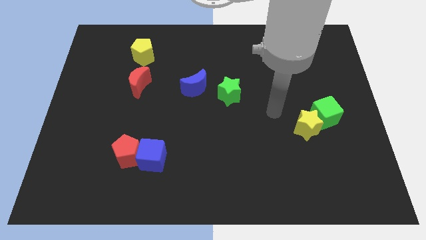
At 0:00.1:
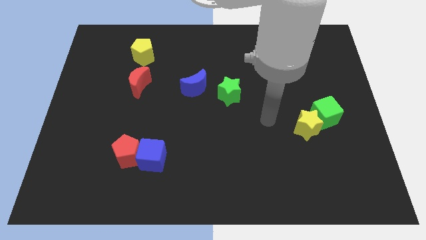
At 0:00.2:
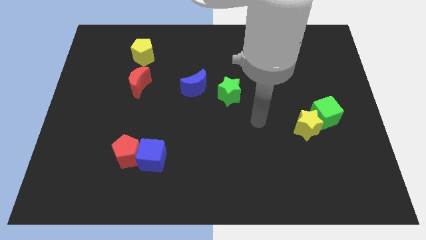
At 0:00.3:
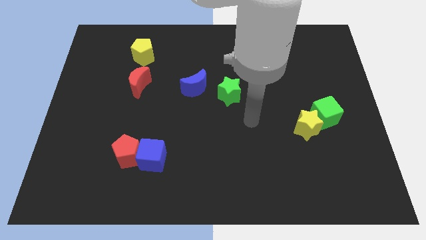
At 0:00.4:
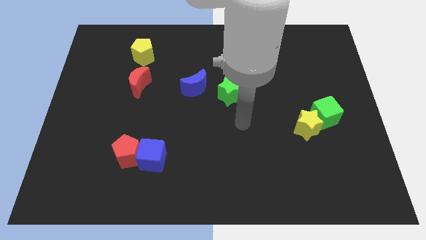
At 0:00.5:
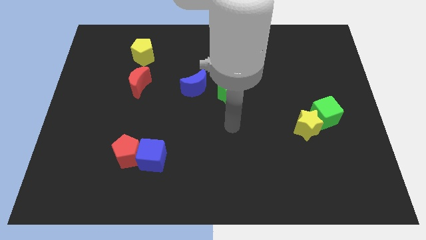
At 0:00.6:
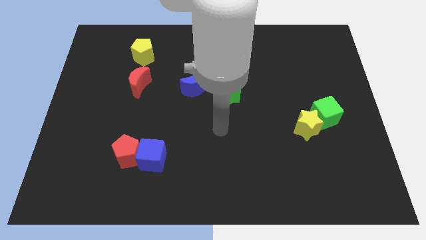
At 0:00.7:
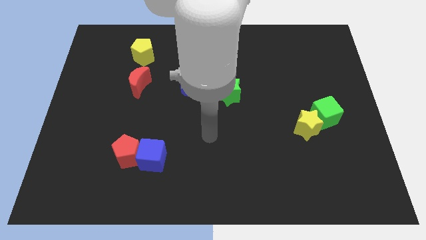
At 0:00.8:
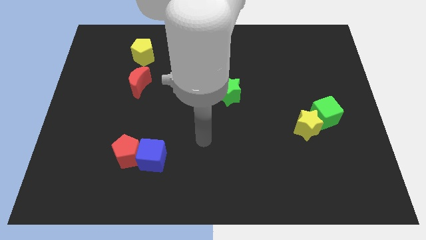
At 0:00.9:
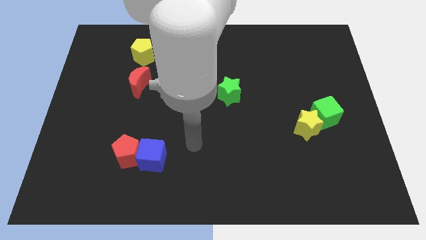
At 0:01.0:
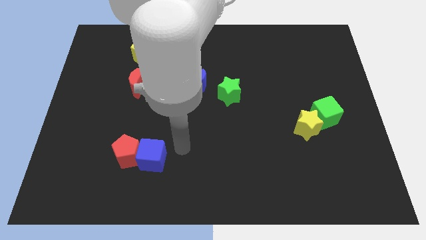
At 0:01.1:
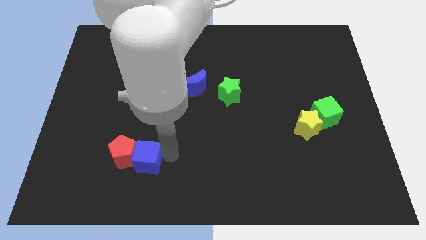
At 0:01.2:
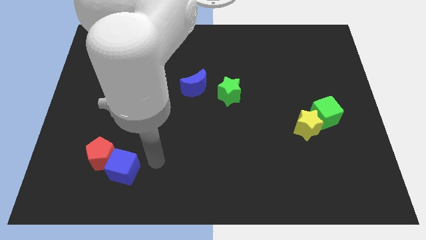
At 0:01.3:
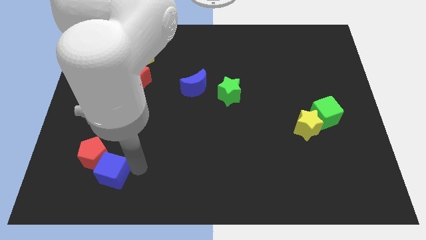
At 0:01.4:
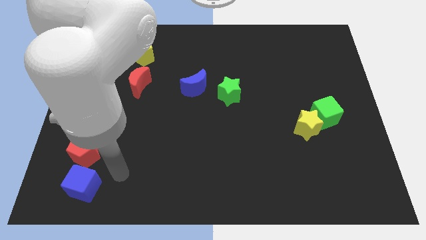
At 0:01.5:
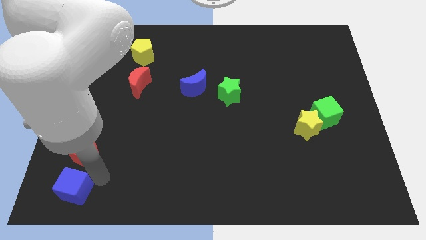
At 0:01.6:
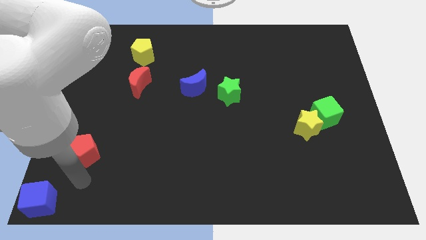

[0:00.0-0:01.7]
pull the red pentagon apart from the blue cube

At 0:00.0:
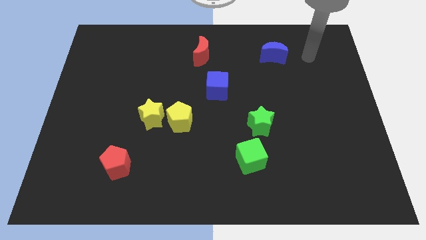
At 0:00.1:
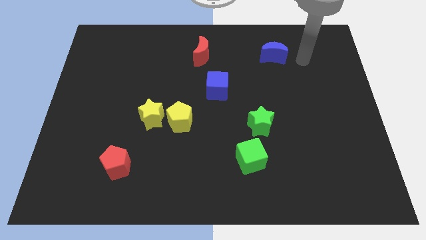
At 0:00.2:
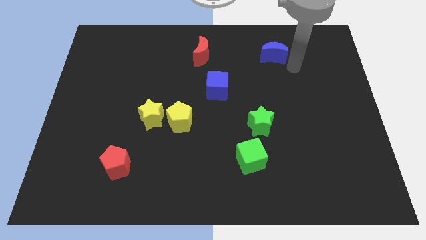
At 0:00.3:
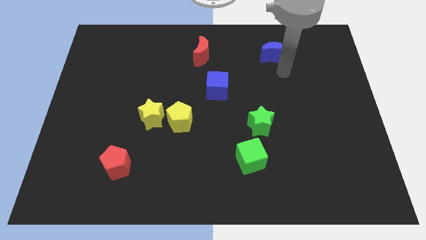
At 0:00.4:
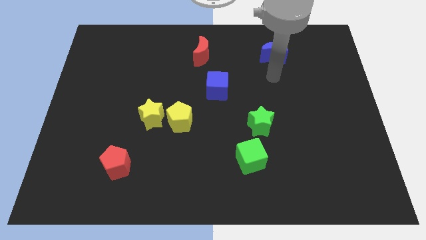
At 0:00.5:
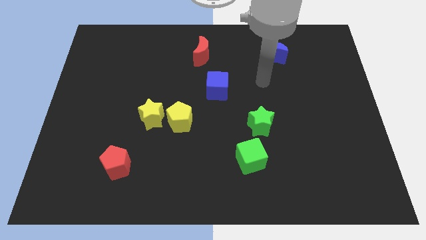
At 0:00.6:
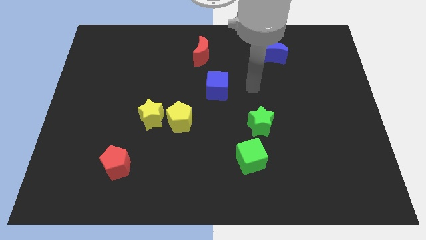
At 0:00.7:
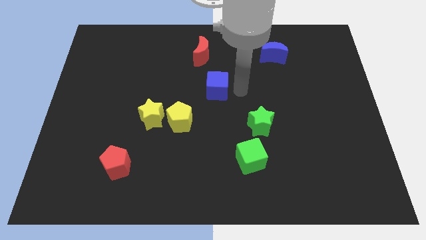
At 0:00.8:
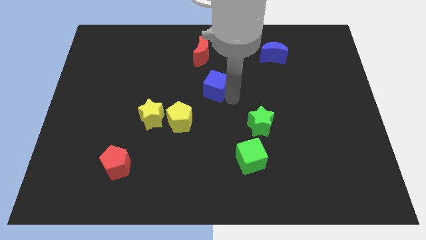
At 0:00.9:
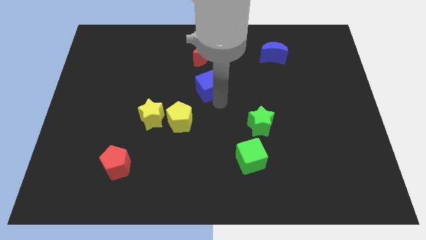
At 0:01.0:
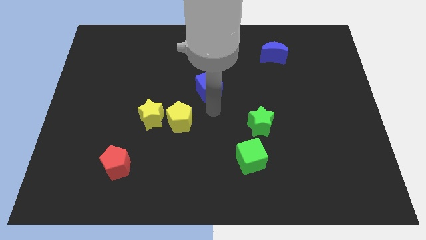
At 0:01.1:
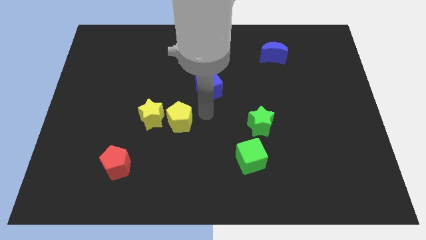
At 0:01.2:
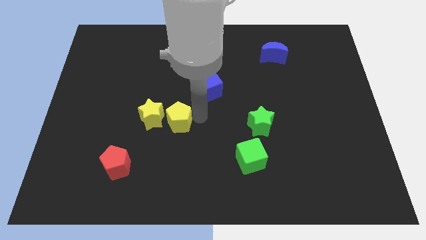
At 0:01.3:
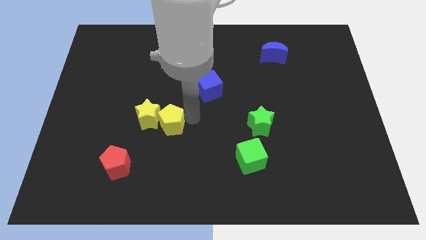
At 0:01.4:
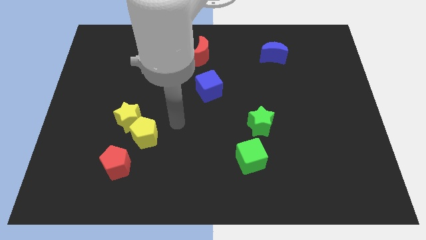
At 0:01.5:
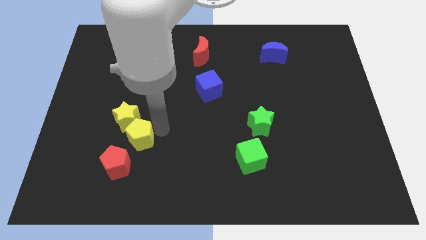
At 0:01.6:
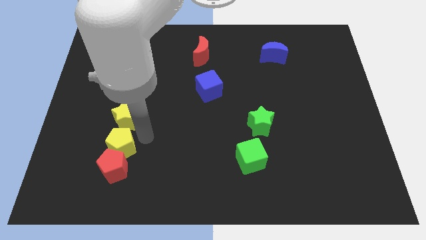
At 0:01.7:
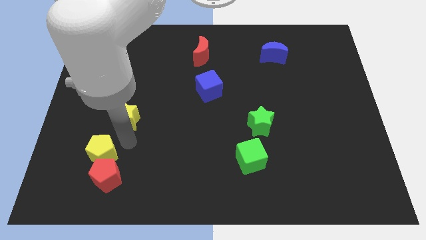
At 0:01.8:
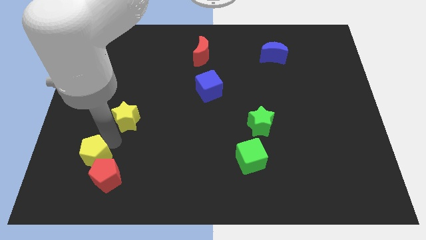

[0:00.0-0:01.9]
pull the yellow star apart from the yellow pentagon

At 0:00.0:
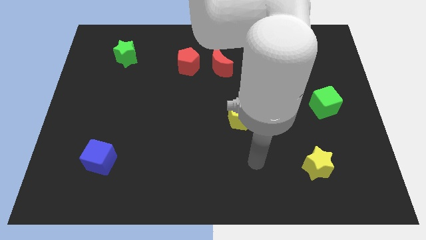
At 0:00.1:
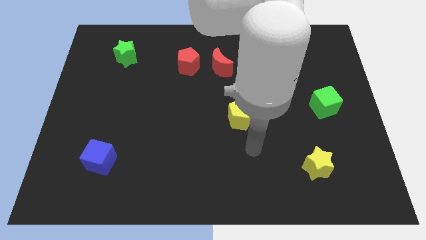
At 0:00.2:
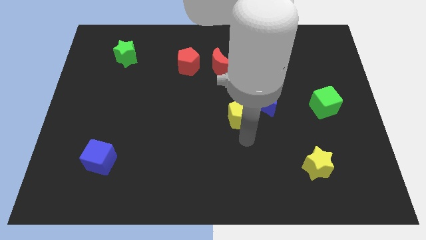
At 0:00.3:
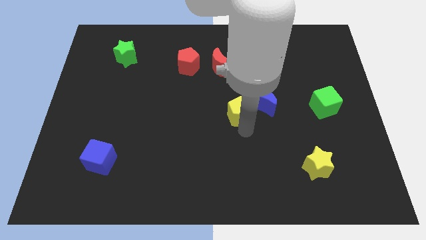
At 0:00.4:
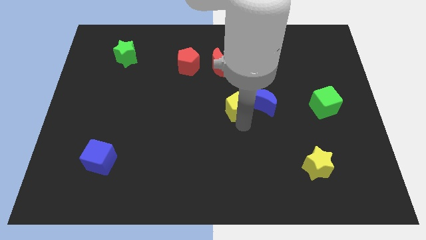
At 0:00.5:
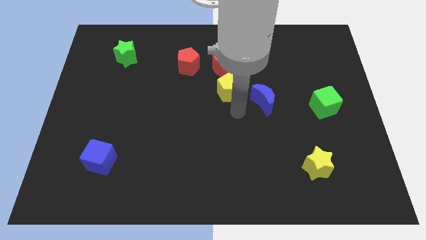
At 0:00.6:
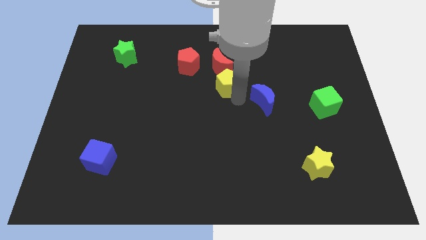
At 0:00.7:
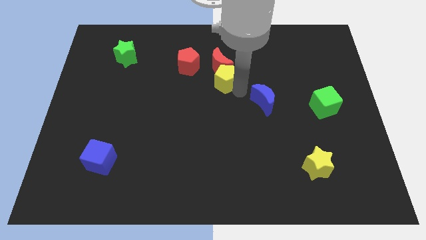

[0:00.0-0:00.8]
pull the blue moon apart from the yellow pentagon

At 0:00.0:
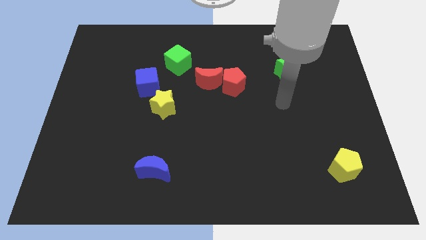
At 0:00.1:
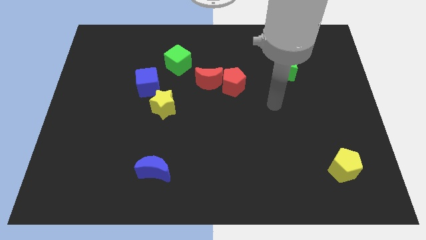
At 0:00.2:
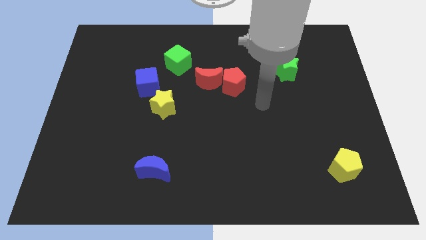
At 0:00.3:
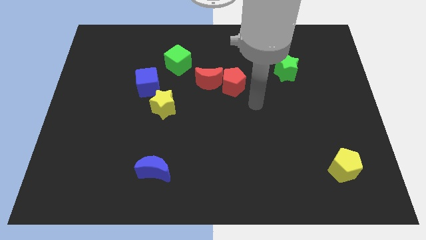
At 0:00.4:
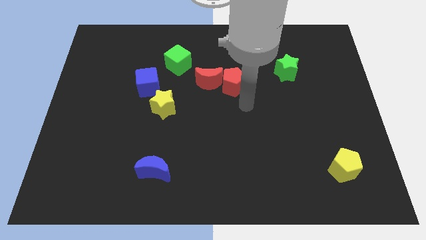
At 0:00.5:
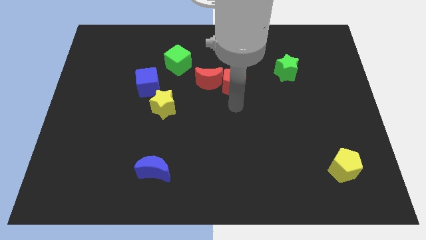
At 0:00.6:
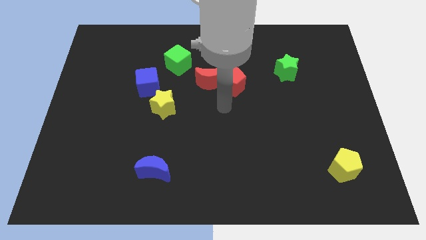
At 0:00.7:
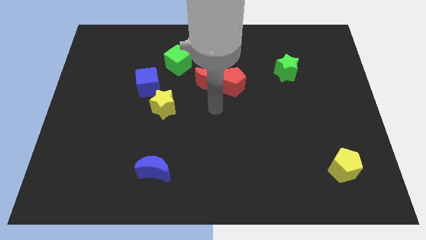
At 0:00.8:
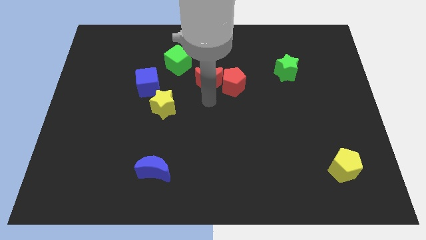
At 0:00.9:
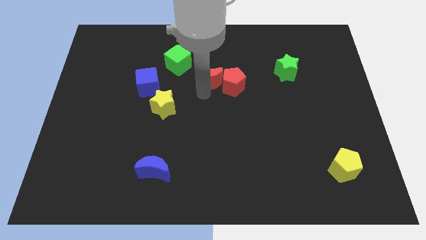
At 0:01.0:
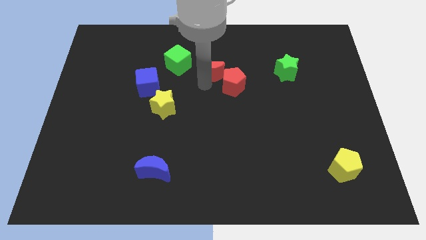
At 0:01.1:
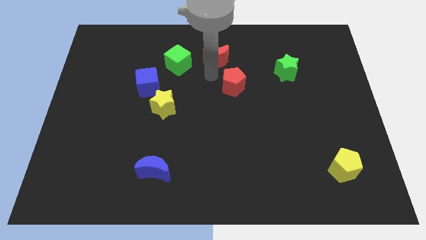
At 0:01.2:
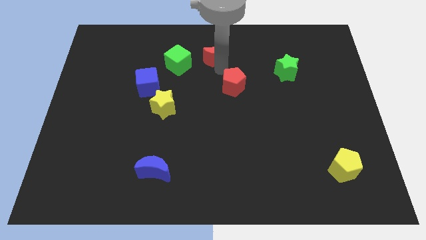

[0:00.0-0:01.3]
pull the red pentagon apart from the red moon

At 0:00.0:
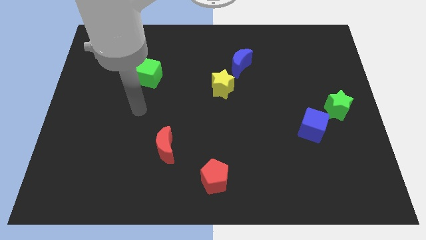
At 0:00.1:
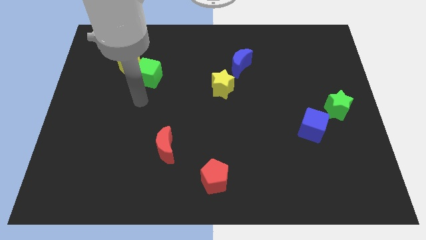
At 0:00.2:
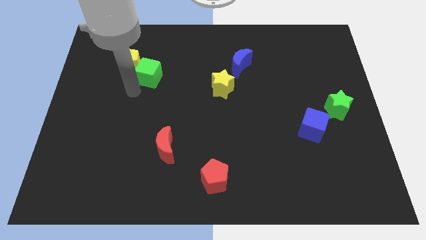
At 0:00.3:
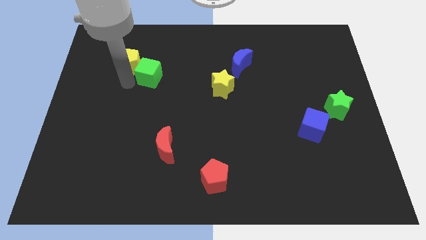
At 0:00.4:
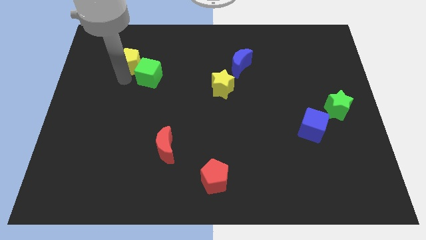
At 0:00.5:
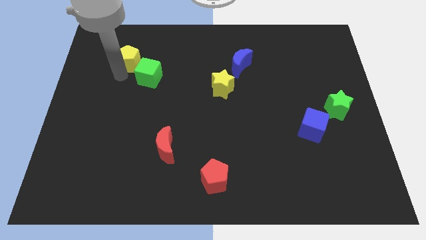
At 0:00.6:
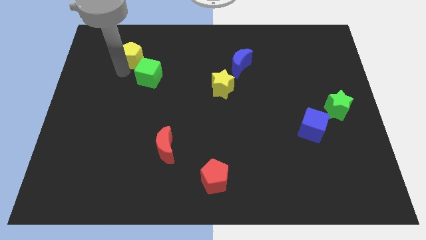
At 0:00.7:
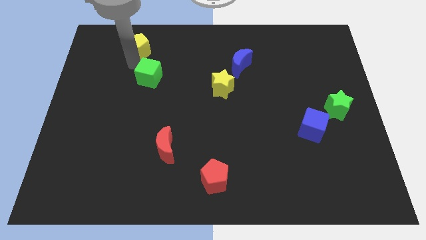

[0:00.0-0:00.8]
separate the green cube from the yellow pentagon

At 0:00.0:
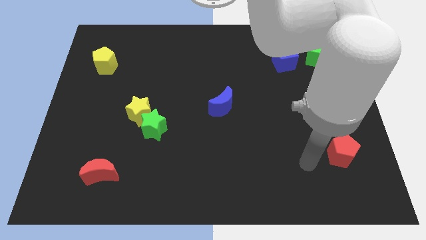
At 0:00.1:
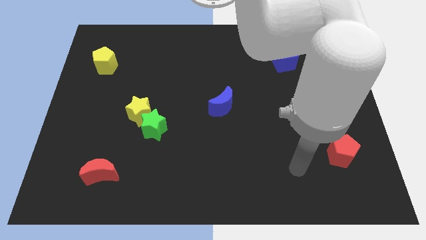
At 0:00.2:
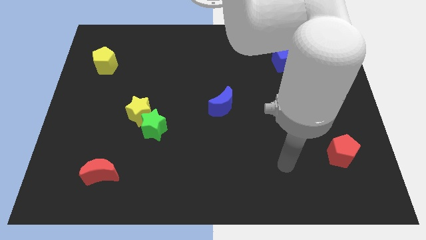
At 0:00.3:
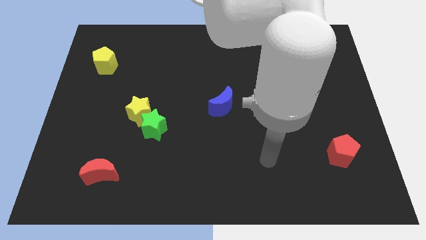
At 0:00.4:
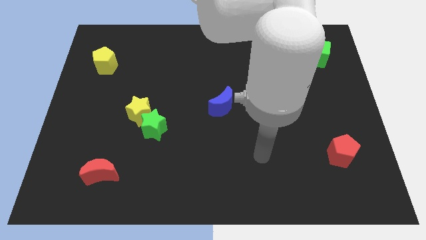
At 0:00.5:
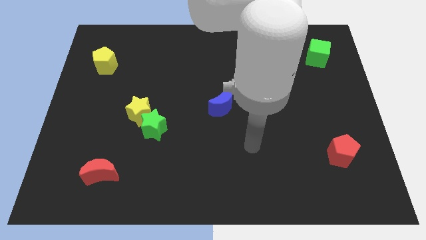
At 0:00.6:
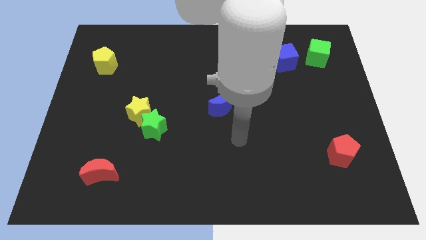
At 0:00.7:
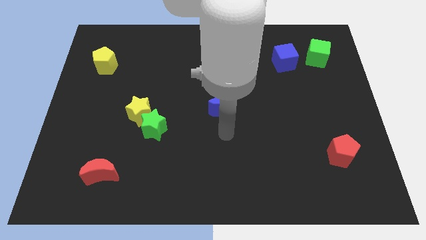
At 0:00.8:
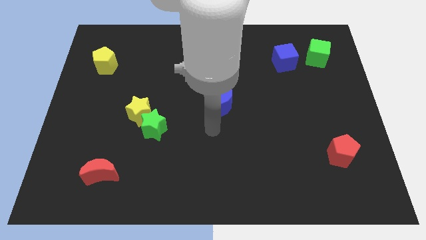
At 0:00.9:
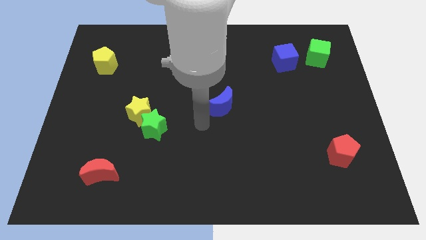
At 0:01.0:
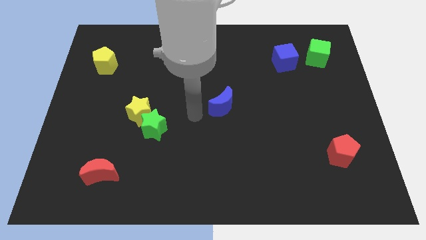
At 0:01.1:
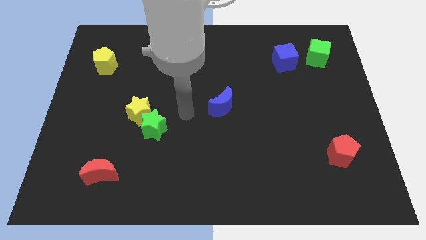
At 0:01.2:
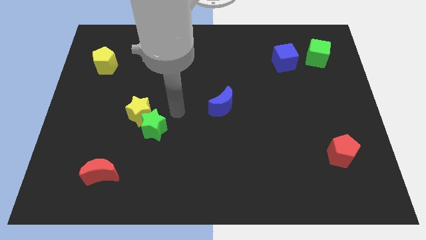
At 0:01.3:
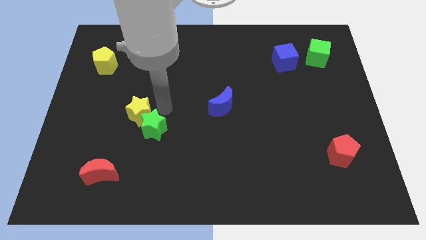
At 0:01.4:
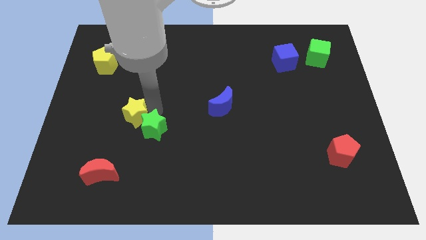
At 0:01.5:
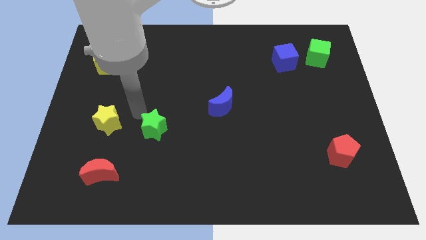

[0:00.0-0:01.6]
separate the green star from the yellow star

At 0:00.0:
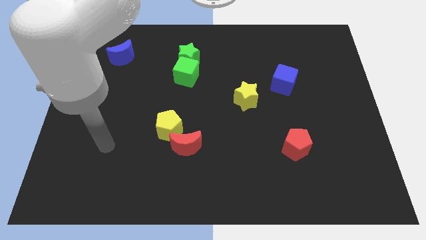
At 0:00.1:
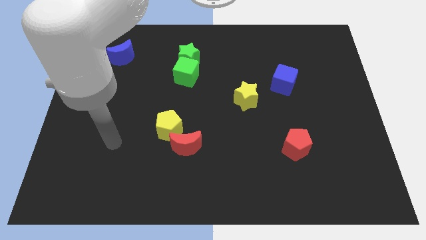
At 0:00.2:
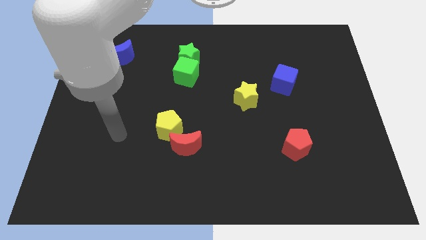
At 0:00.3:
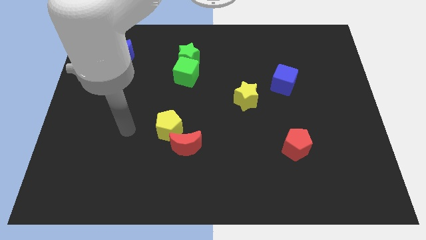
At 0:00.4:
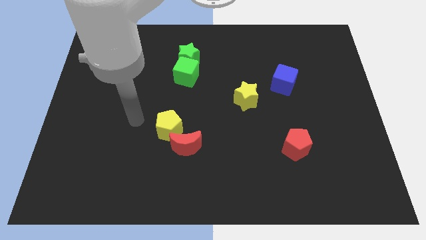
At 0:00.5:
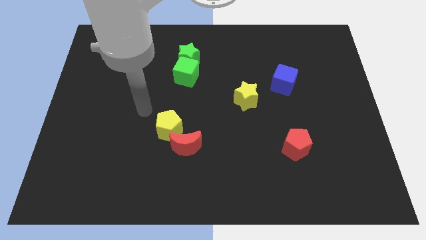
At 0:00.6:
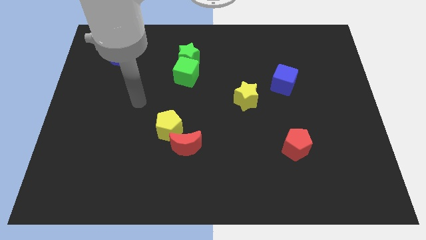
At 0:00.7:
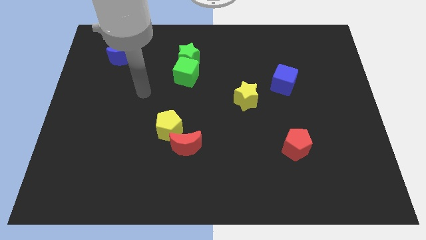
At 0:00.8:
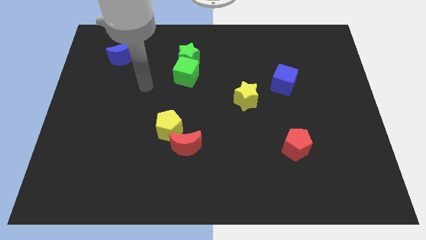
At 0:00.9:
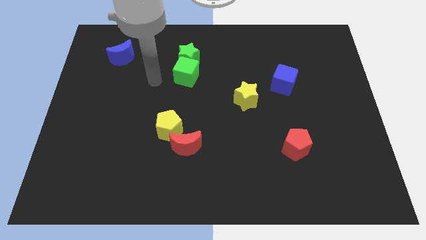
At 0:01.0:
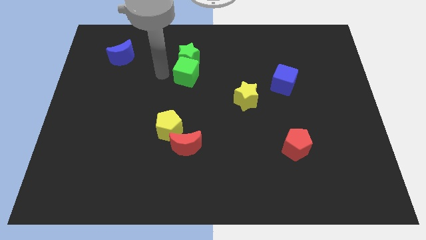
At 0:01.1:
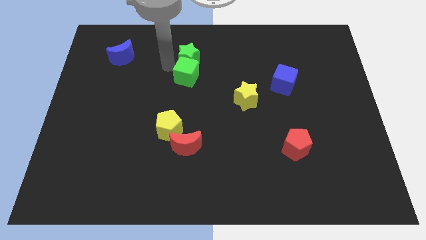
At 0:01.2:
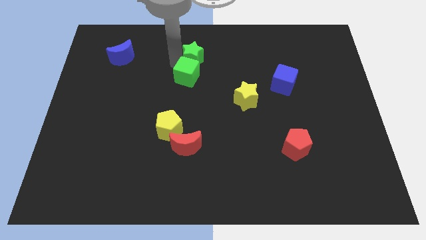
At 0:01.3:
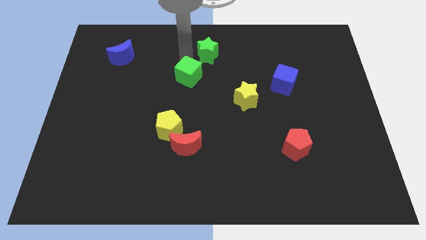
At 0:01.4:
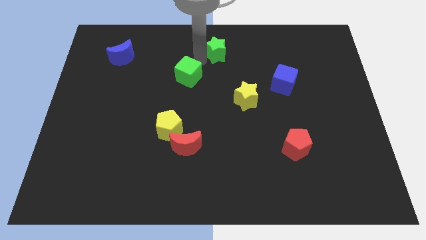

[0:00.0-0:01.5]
move the green cube away from the green star
